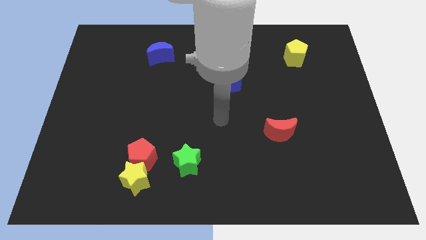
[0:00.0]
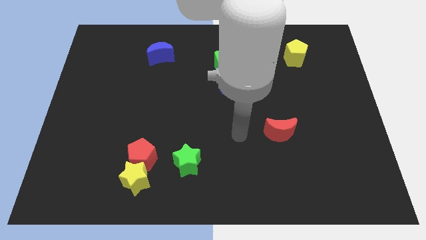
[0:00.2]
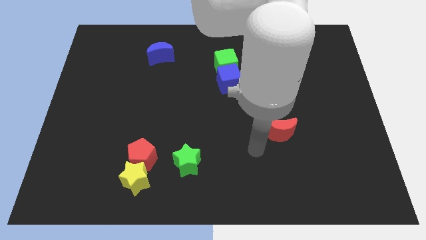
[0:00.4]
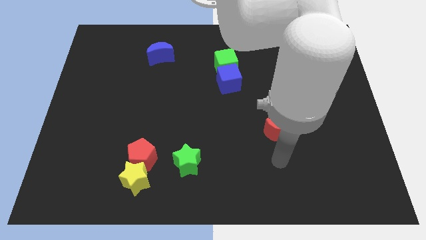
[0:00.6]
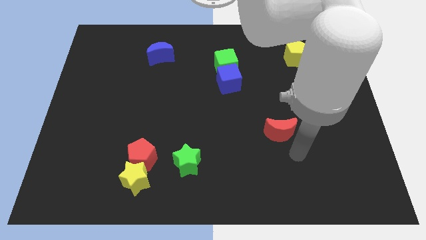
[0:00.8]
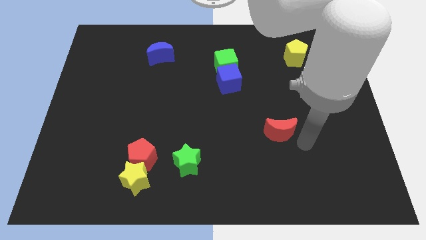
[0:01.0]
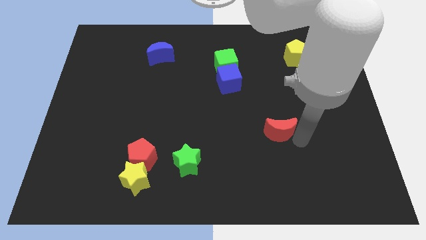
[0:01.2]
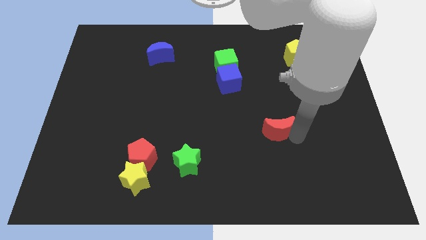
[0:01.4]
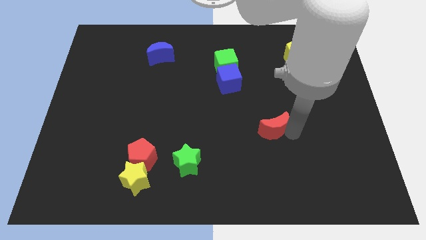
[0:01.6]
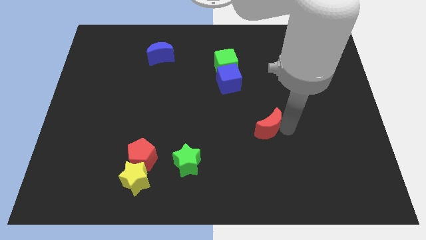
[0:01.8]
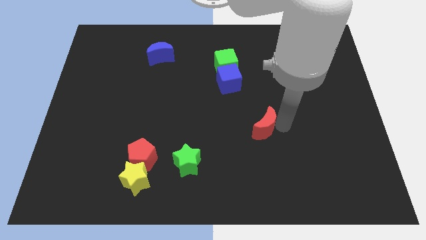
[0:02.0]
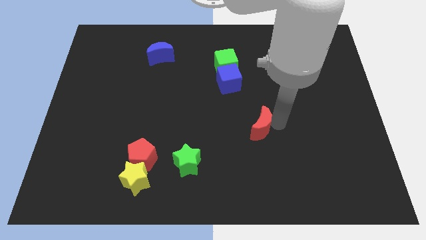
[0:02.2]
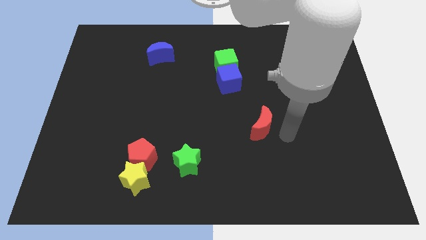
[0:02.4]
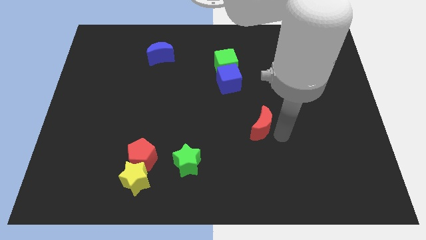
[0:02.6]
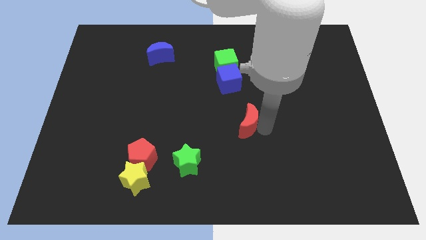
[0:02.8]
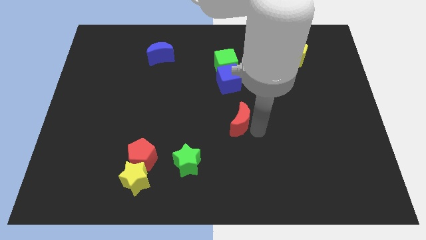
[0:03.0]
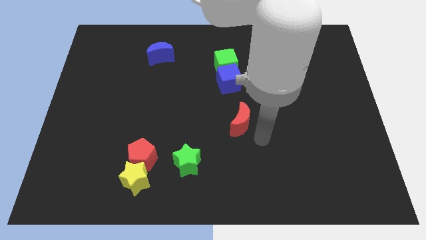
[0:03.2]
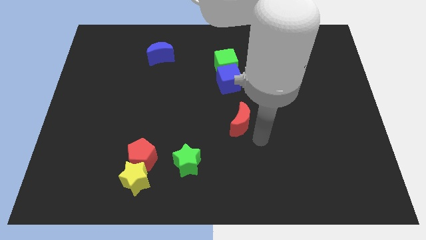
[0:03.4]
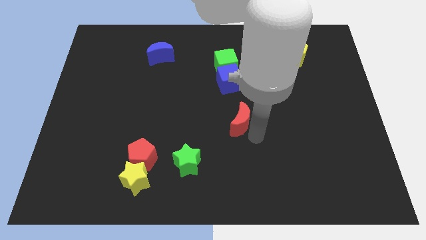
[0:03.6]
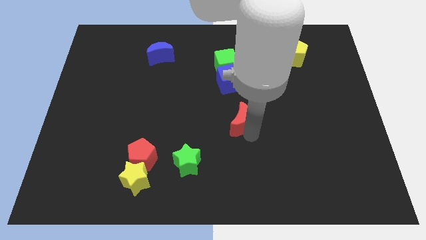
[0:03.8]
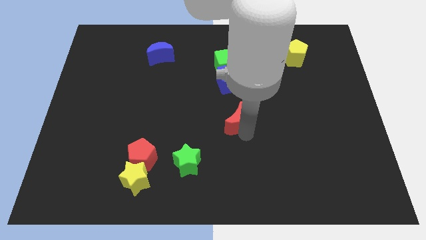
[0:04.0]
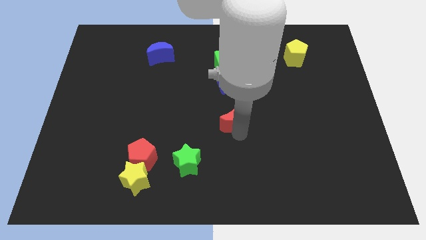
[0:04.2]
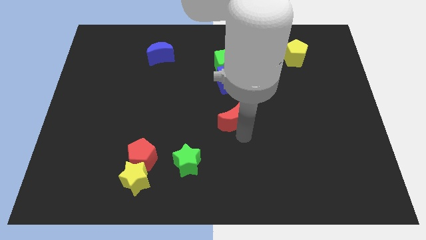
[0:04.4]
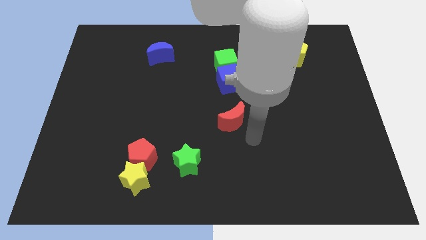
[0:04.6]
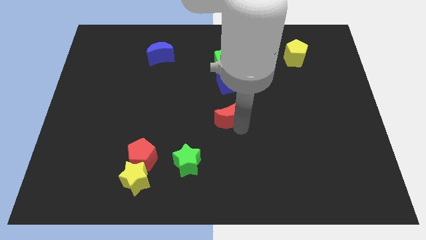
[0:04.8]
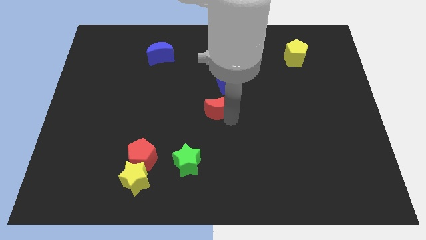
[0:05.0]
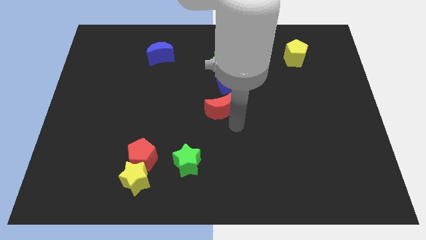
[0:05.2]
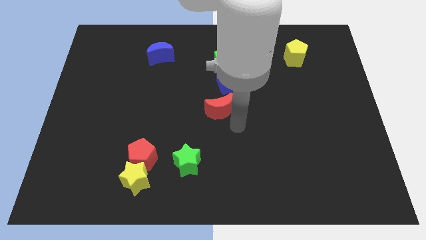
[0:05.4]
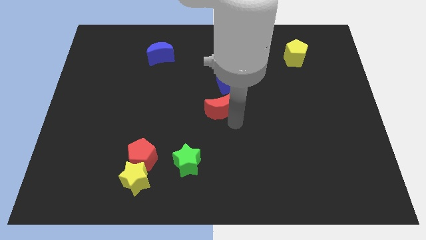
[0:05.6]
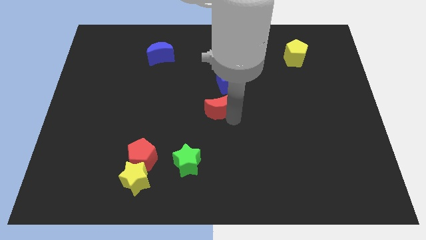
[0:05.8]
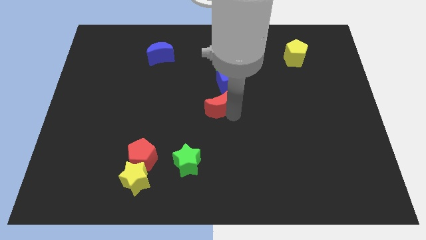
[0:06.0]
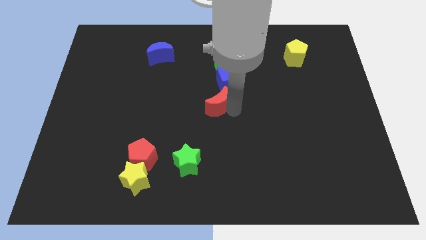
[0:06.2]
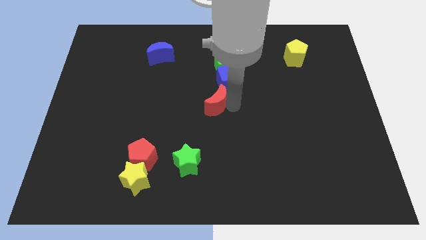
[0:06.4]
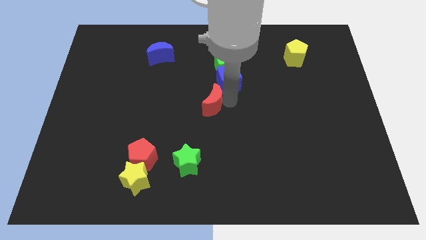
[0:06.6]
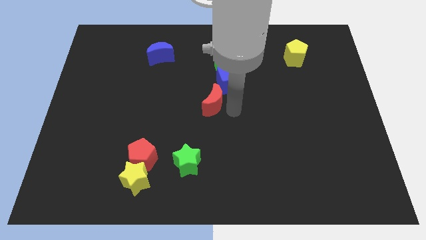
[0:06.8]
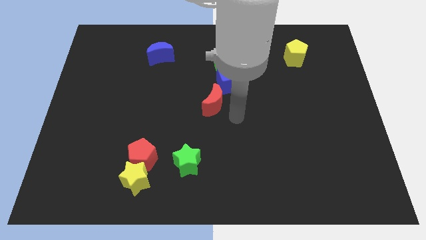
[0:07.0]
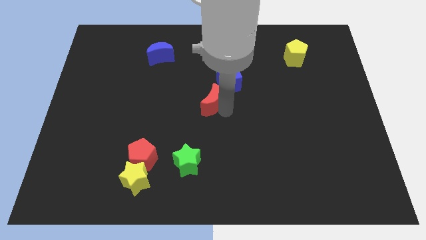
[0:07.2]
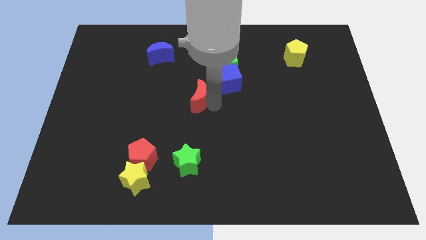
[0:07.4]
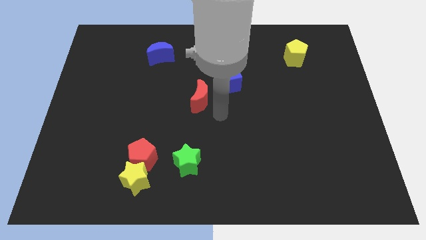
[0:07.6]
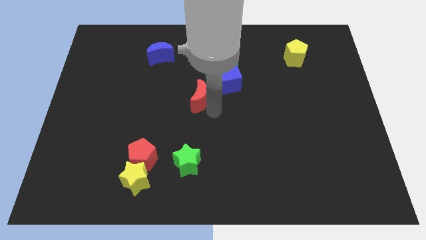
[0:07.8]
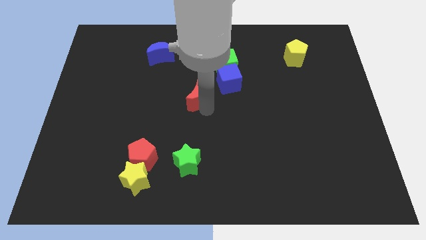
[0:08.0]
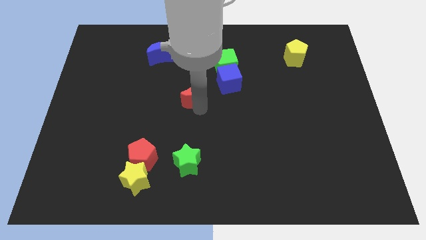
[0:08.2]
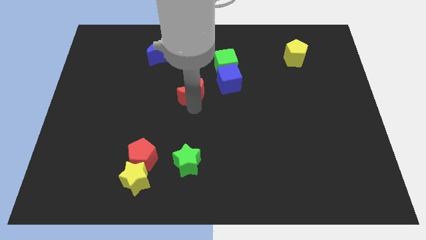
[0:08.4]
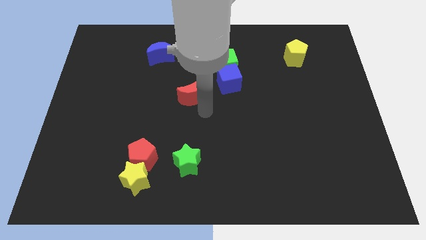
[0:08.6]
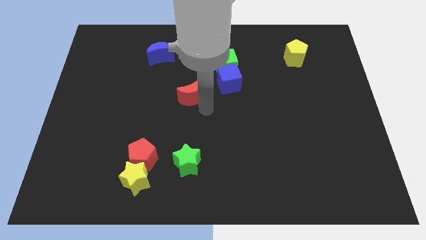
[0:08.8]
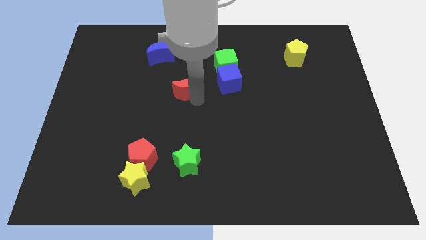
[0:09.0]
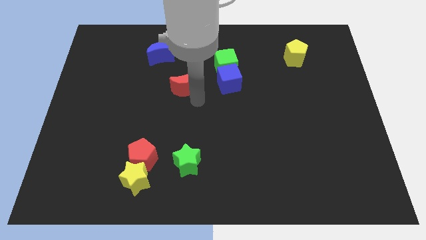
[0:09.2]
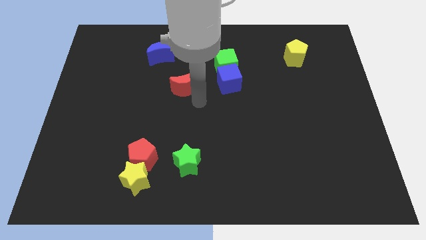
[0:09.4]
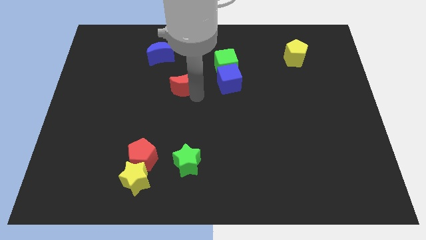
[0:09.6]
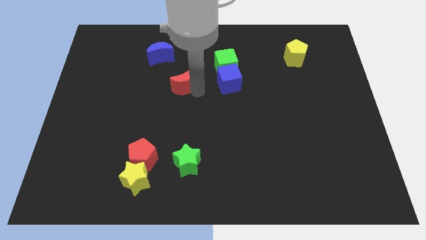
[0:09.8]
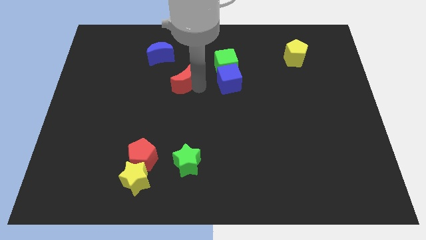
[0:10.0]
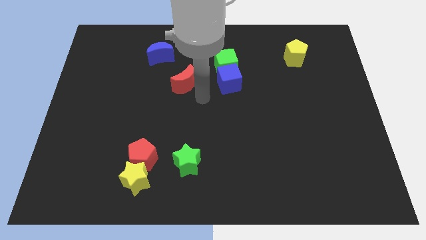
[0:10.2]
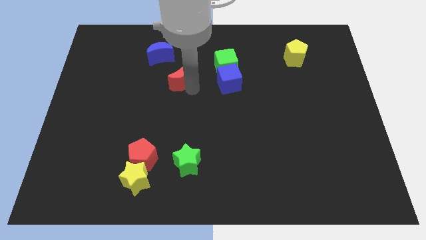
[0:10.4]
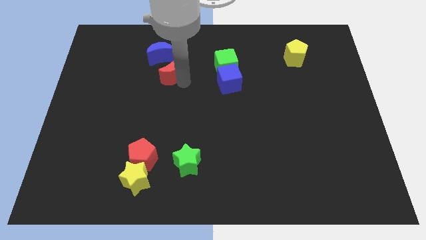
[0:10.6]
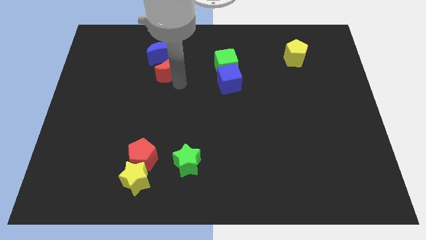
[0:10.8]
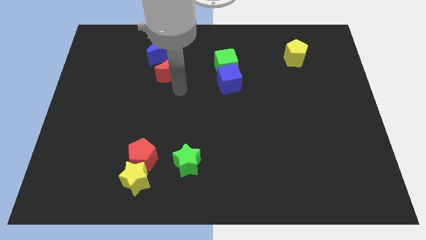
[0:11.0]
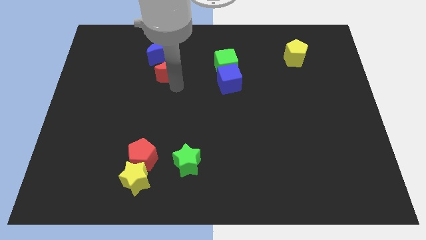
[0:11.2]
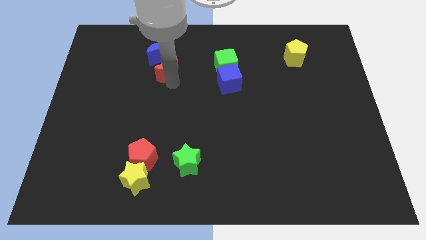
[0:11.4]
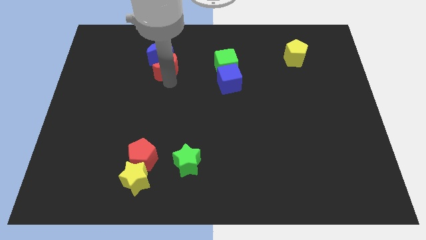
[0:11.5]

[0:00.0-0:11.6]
push the red moon next to the blue moon

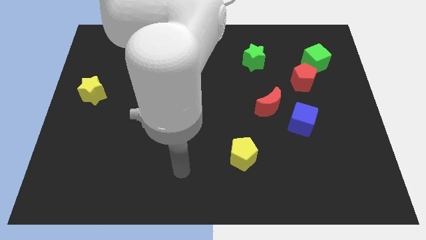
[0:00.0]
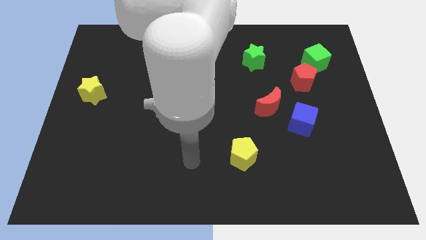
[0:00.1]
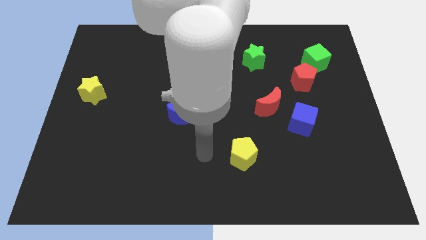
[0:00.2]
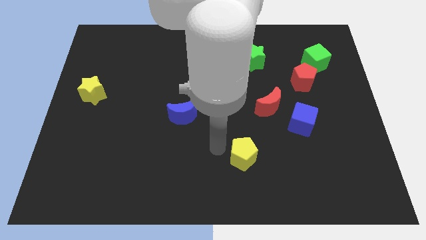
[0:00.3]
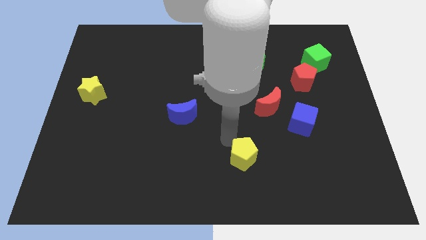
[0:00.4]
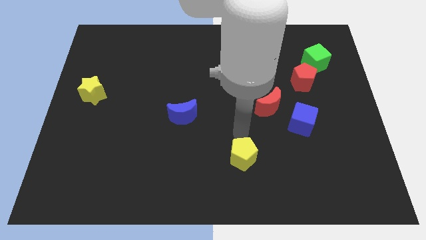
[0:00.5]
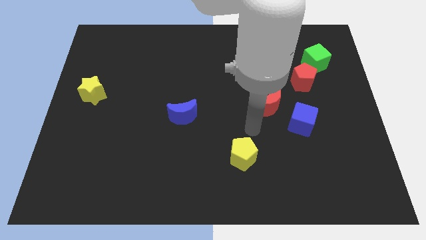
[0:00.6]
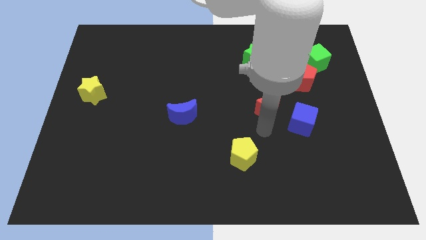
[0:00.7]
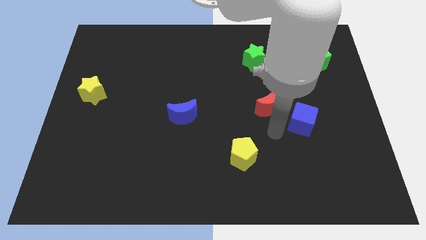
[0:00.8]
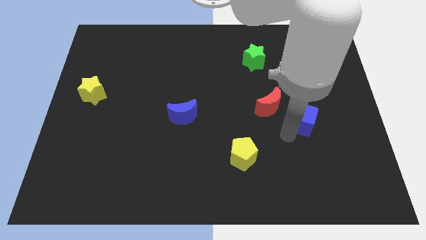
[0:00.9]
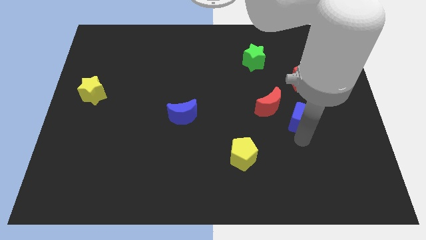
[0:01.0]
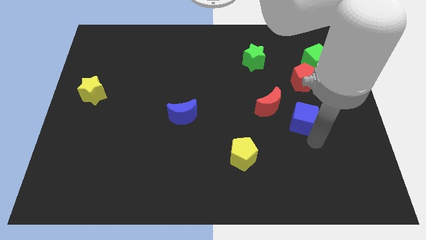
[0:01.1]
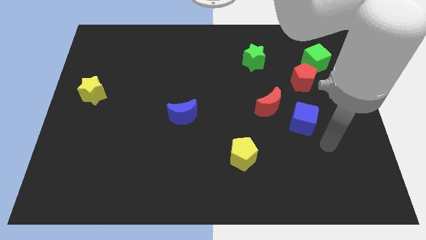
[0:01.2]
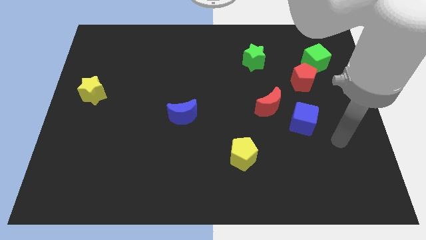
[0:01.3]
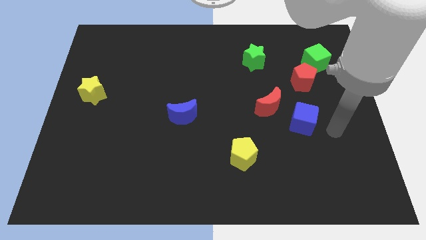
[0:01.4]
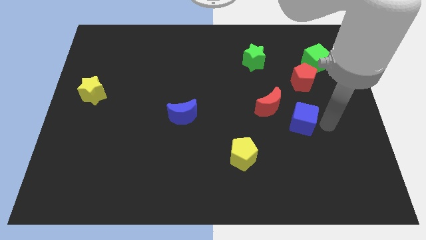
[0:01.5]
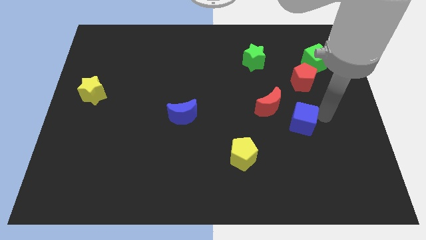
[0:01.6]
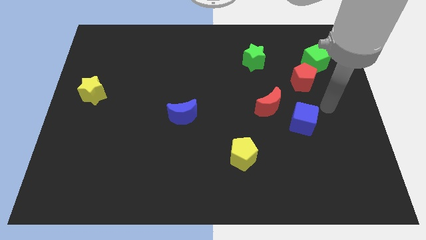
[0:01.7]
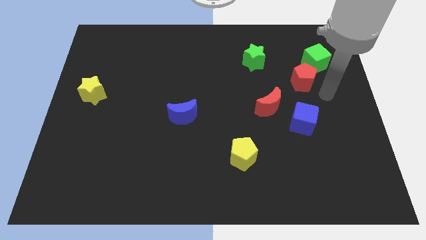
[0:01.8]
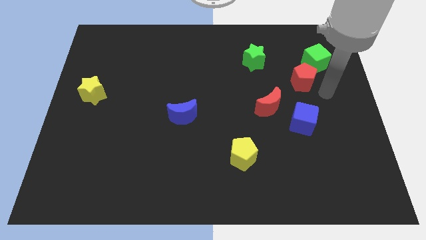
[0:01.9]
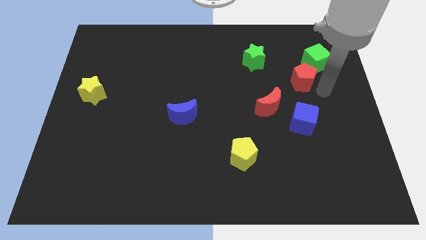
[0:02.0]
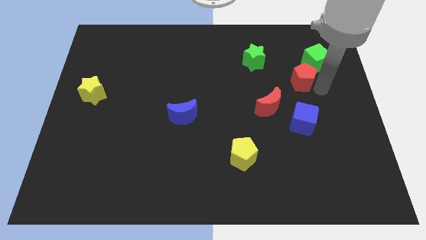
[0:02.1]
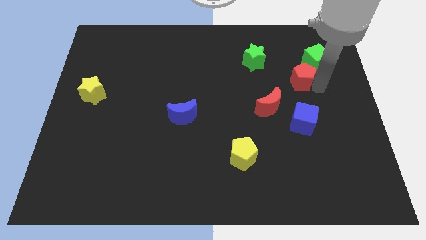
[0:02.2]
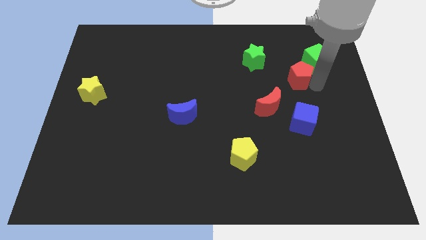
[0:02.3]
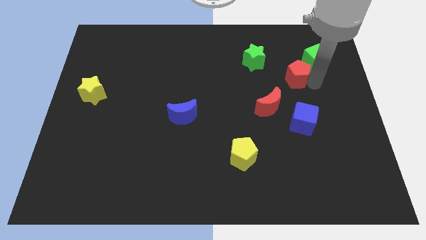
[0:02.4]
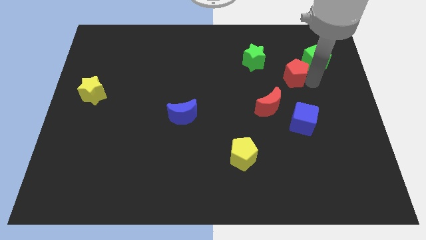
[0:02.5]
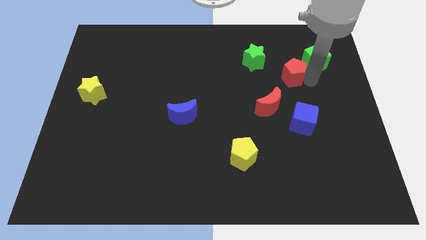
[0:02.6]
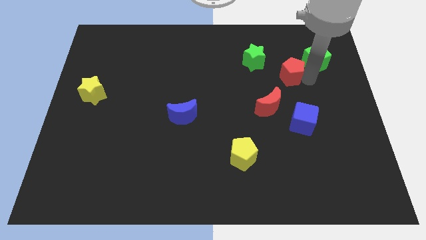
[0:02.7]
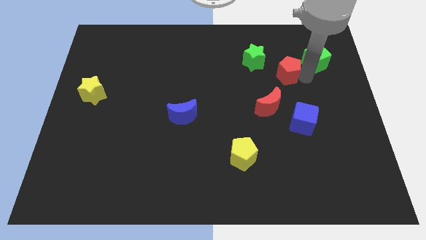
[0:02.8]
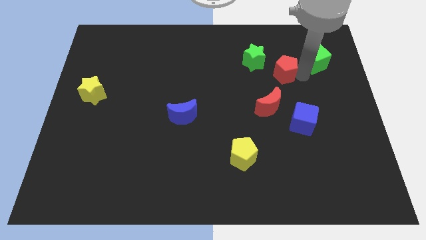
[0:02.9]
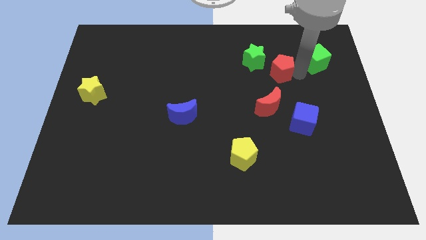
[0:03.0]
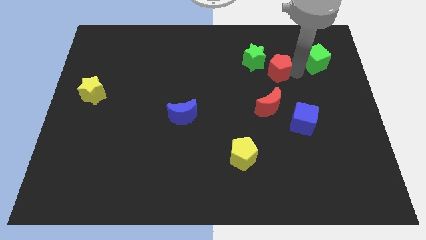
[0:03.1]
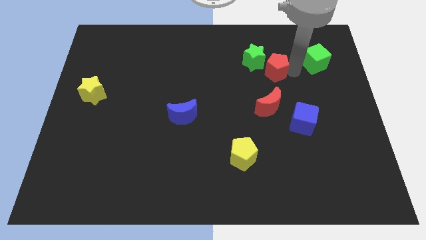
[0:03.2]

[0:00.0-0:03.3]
push the red pentagon next to the green star
